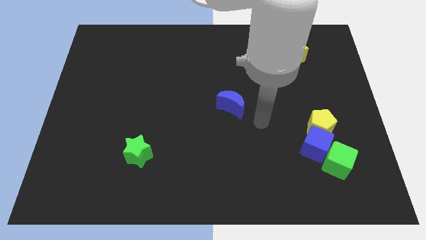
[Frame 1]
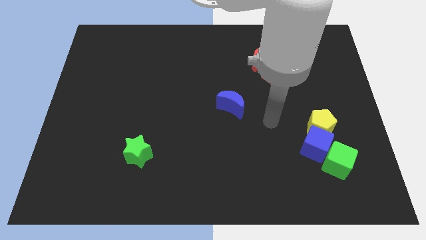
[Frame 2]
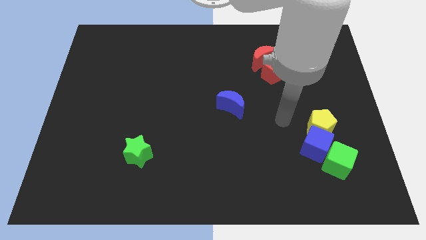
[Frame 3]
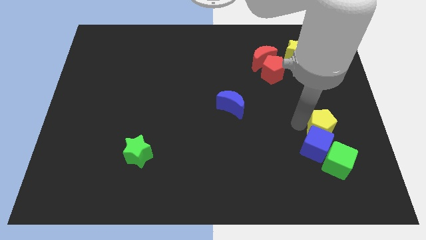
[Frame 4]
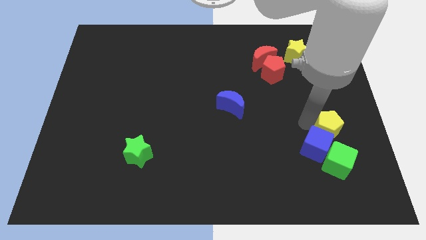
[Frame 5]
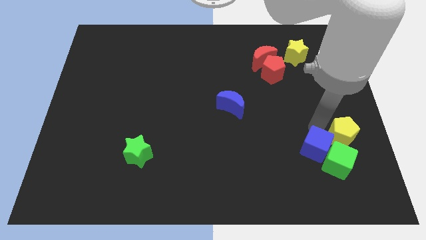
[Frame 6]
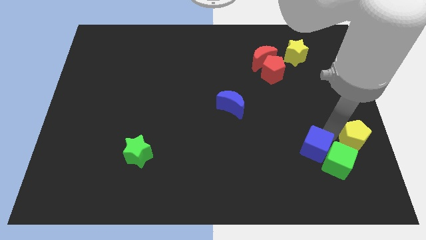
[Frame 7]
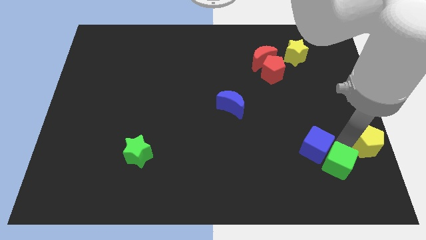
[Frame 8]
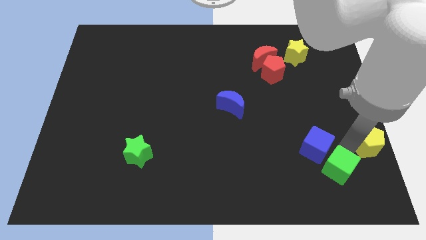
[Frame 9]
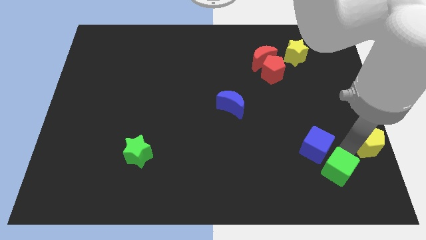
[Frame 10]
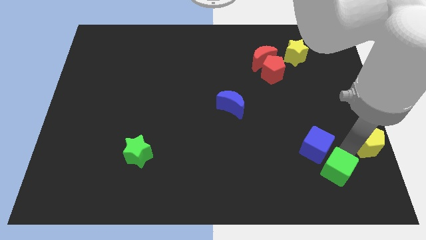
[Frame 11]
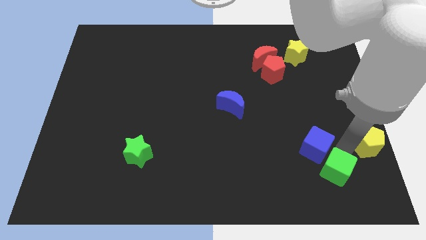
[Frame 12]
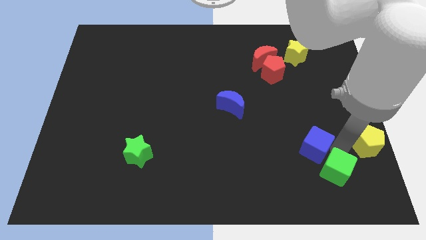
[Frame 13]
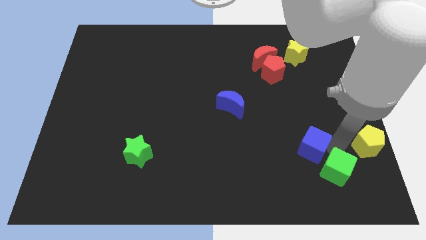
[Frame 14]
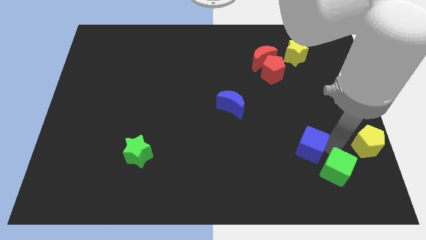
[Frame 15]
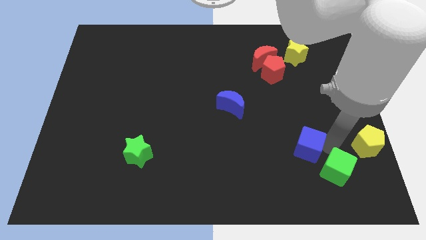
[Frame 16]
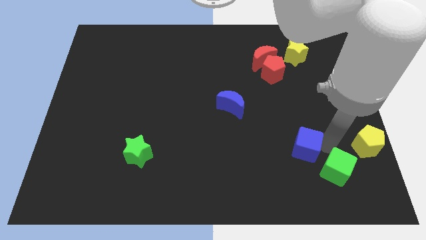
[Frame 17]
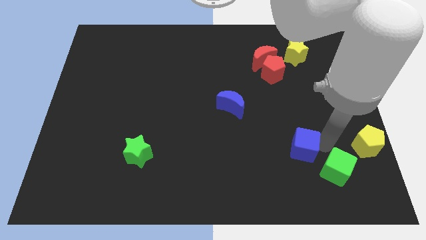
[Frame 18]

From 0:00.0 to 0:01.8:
pull the blue cube apart from the yellow pentagon and green cube

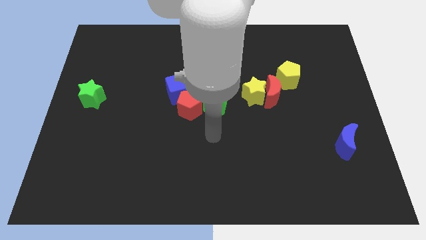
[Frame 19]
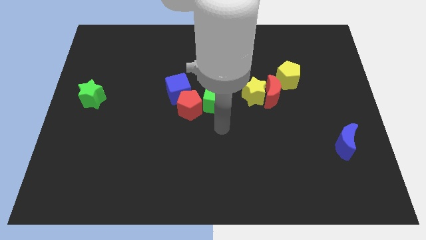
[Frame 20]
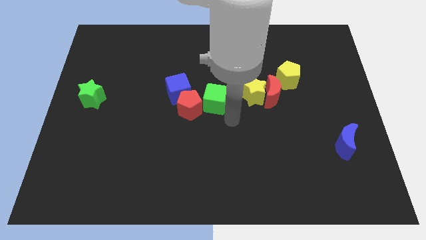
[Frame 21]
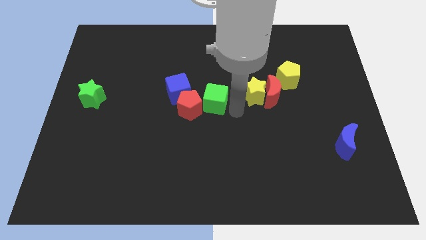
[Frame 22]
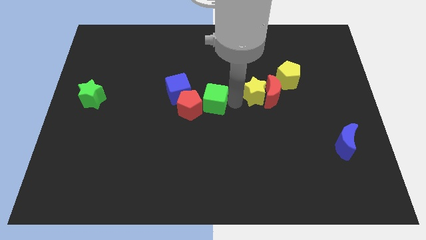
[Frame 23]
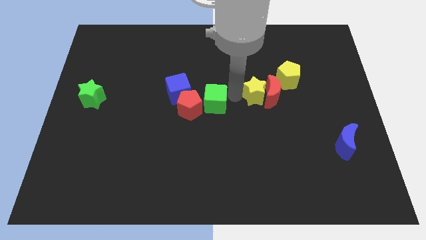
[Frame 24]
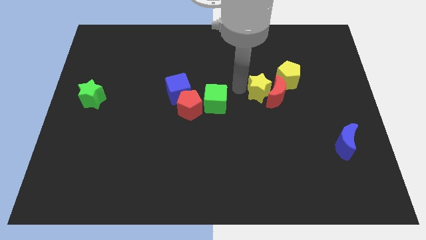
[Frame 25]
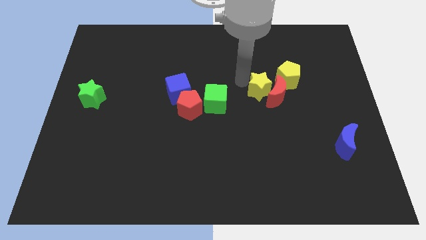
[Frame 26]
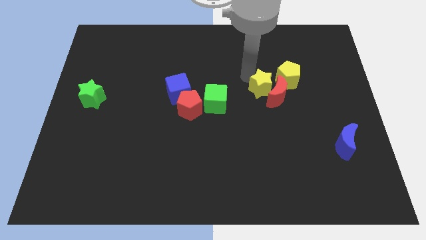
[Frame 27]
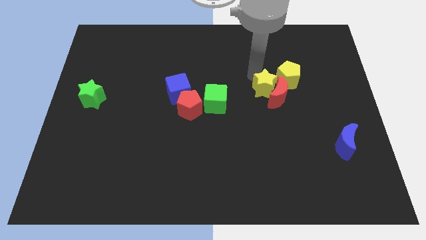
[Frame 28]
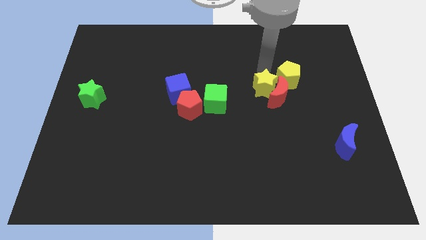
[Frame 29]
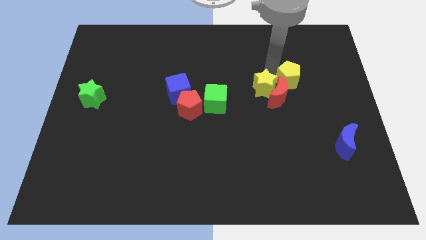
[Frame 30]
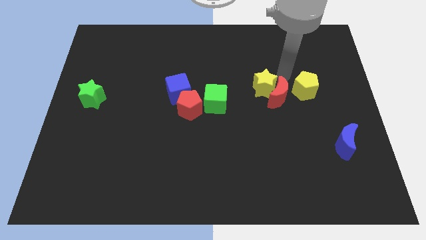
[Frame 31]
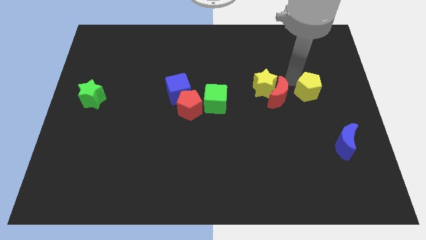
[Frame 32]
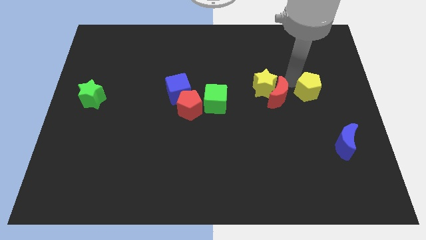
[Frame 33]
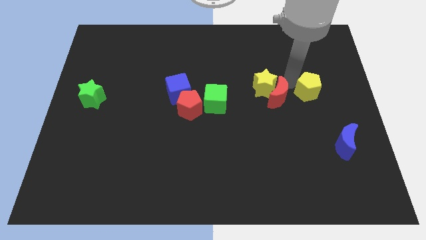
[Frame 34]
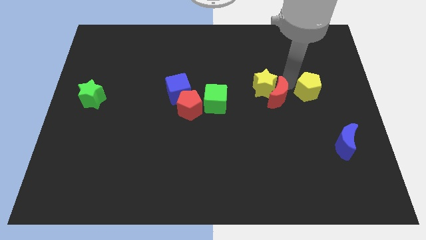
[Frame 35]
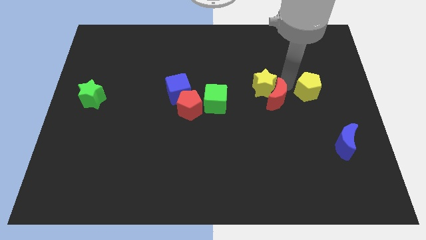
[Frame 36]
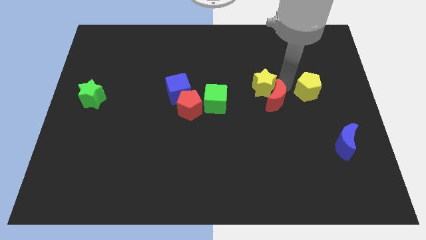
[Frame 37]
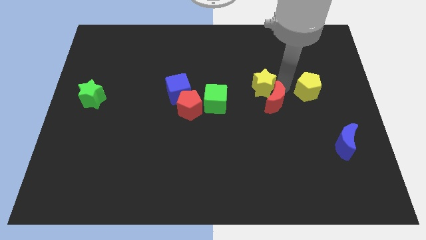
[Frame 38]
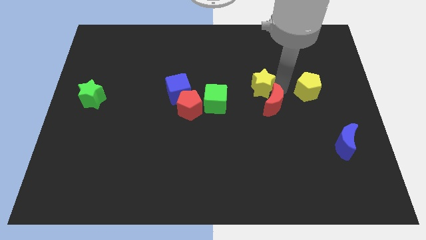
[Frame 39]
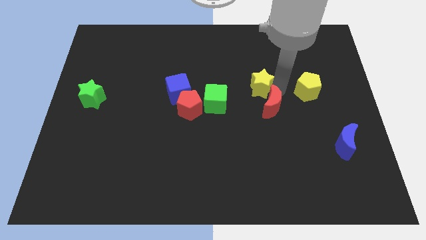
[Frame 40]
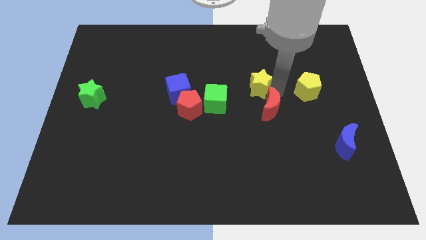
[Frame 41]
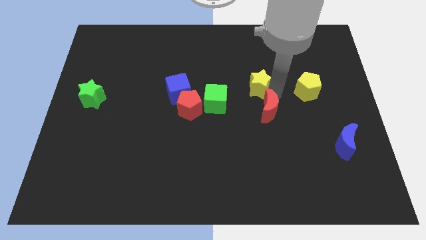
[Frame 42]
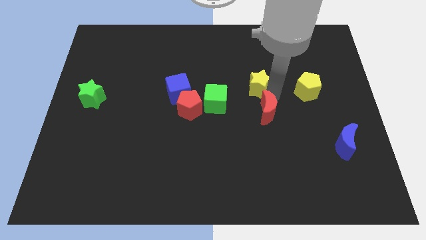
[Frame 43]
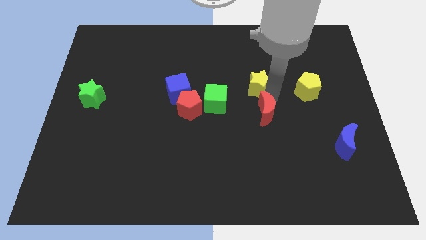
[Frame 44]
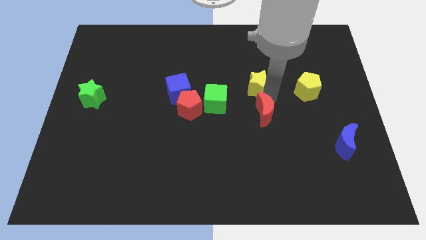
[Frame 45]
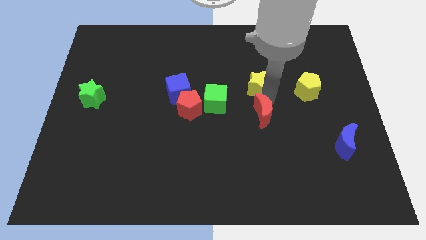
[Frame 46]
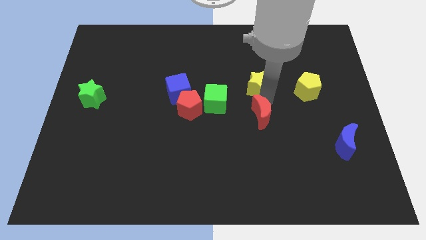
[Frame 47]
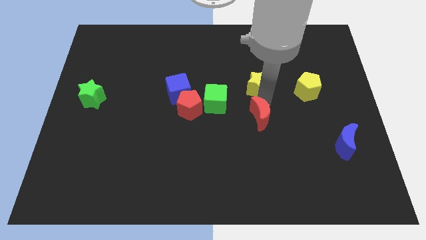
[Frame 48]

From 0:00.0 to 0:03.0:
pull the red moon apart from the yellow star and yellow pentagon

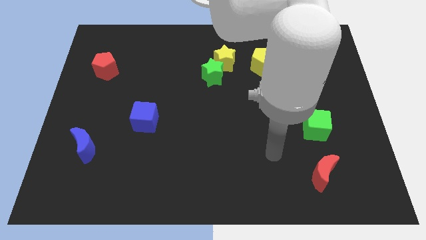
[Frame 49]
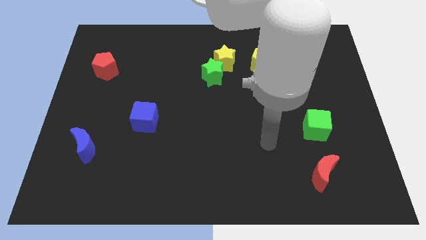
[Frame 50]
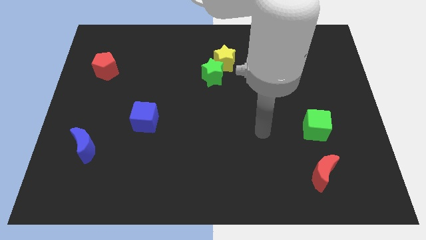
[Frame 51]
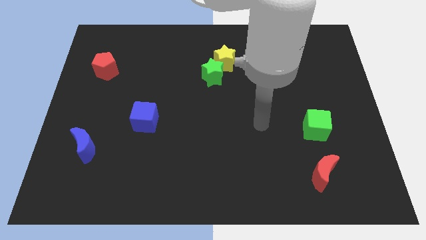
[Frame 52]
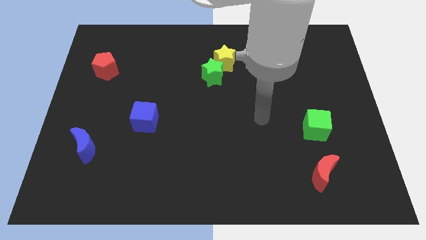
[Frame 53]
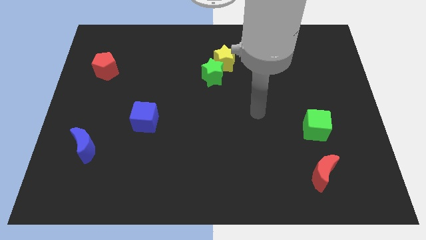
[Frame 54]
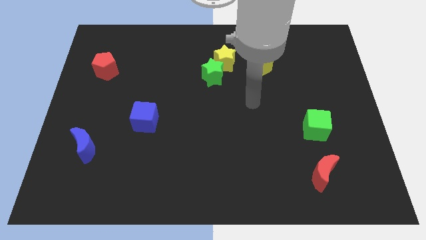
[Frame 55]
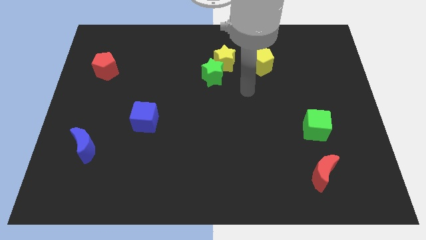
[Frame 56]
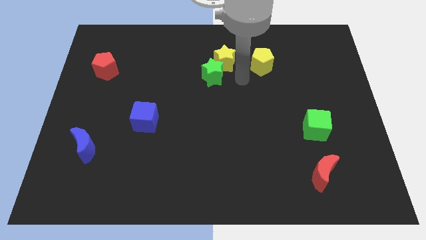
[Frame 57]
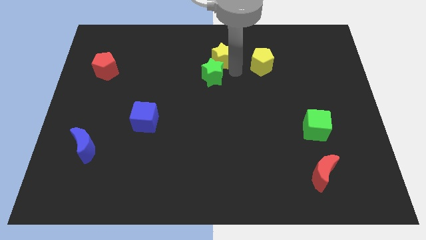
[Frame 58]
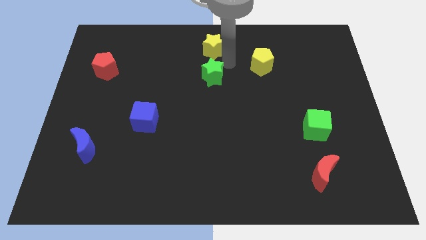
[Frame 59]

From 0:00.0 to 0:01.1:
separate the green star from the yellow star

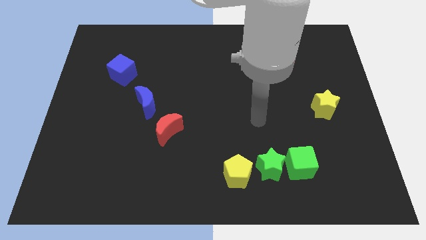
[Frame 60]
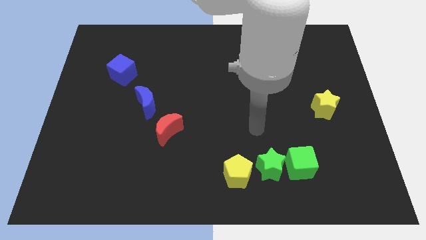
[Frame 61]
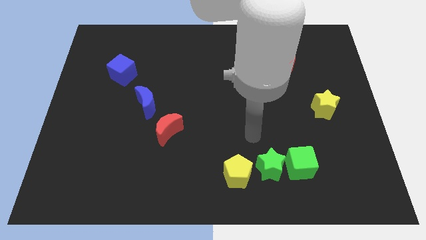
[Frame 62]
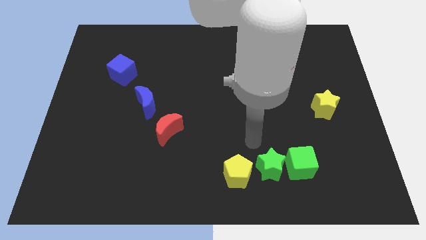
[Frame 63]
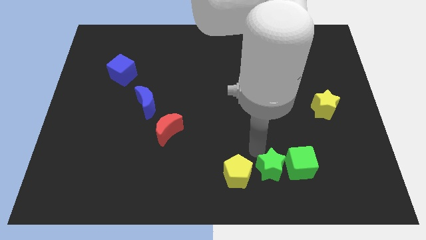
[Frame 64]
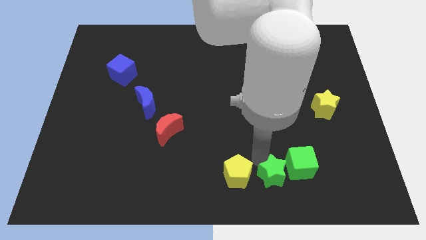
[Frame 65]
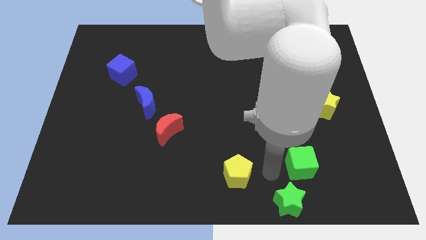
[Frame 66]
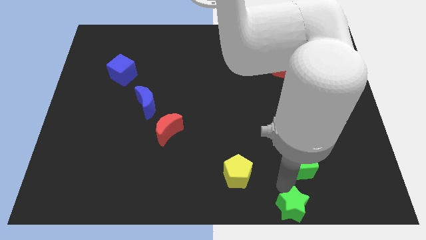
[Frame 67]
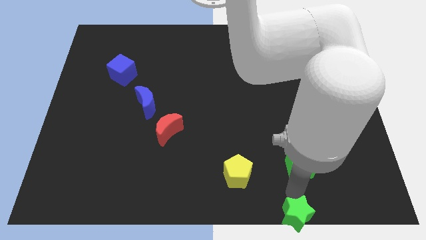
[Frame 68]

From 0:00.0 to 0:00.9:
move the green cube away from the green star

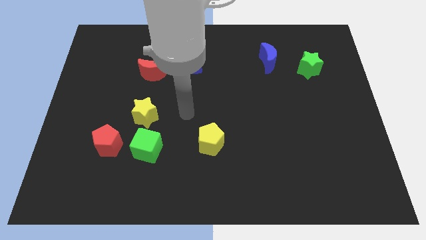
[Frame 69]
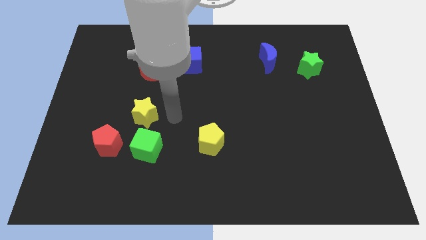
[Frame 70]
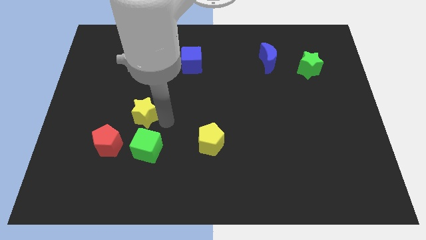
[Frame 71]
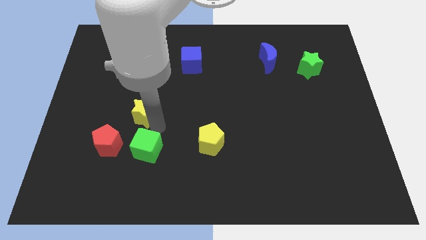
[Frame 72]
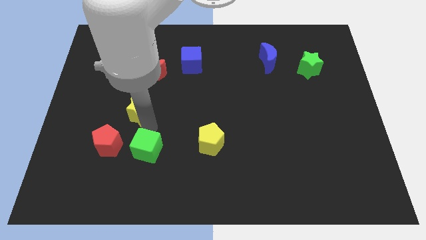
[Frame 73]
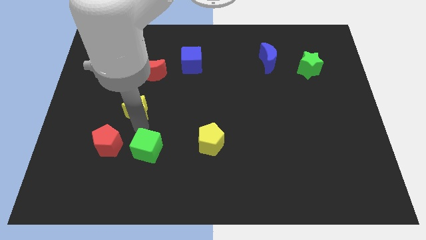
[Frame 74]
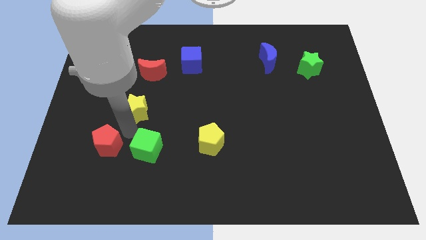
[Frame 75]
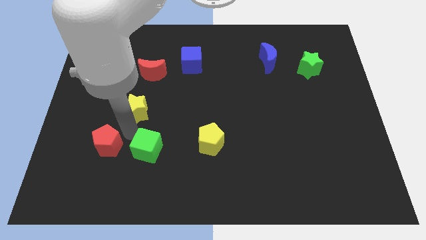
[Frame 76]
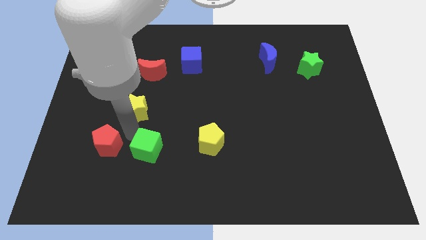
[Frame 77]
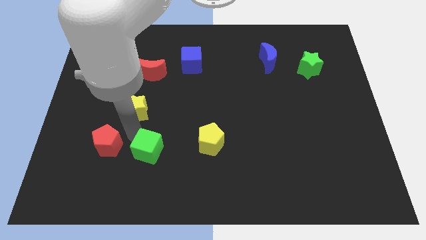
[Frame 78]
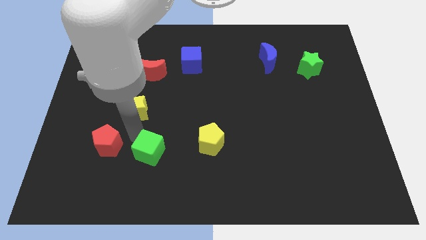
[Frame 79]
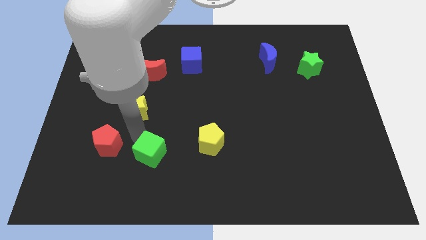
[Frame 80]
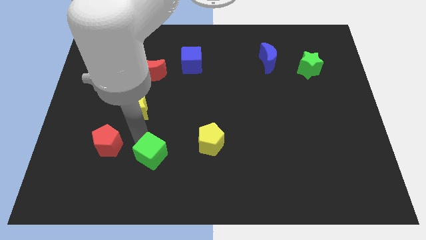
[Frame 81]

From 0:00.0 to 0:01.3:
move the green cube away from the red pentagon and yellow star

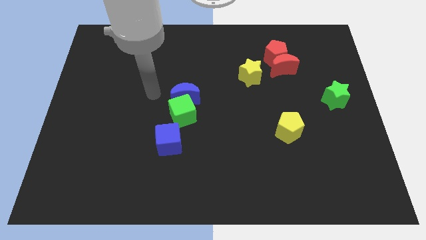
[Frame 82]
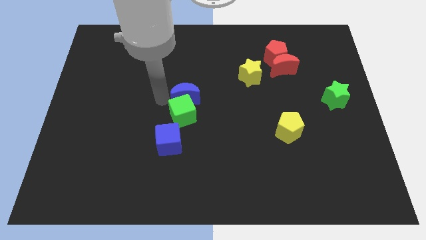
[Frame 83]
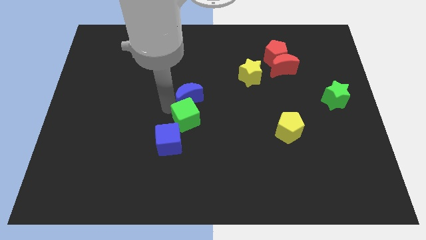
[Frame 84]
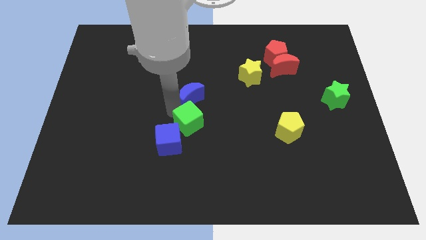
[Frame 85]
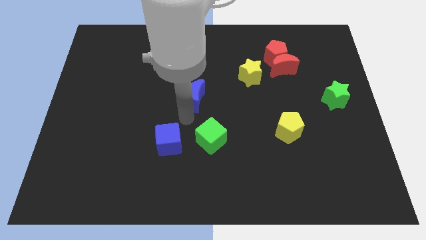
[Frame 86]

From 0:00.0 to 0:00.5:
separate the blue moon from the green cube

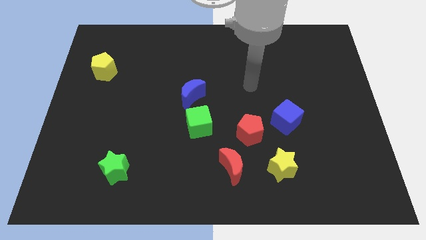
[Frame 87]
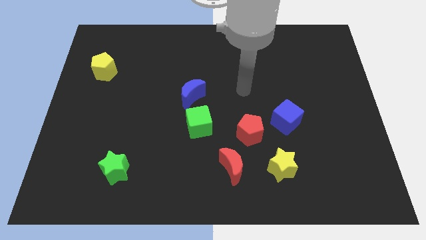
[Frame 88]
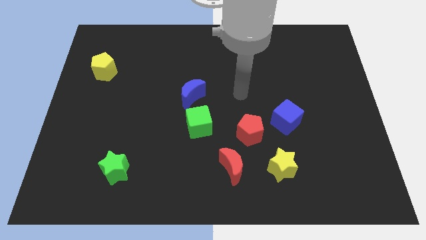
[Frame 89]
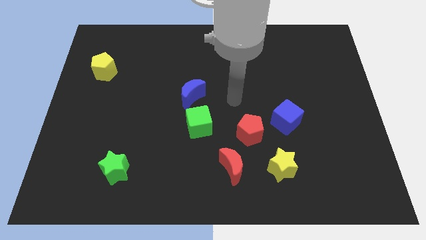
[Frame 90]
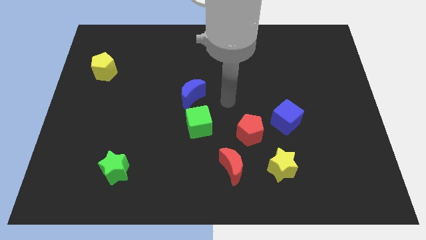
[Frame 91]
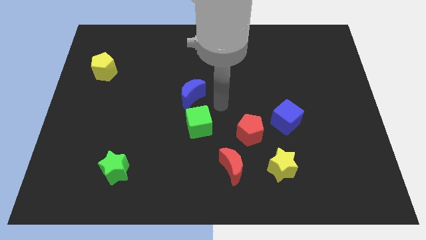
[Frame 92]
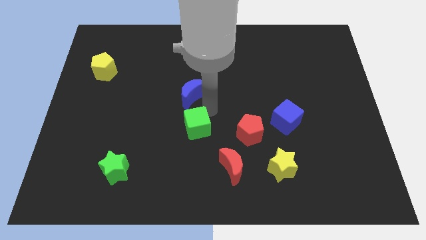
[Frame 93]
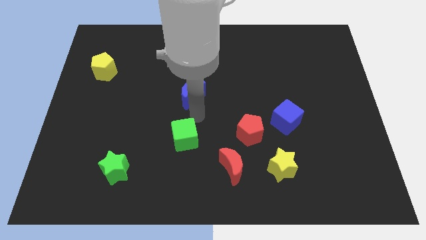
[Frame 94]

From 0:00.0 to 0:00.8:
pull the blue moon apart from the green cube
